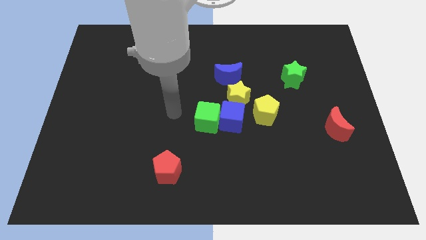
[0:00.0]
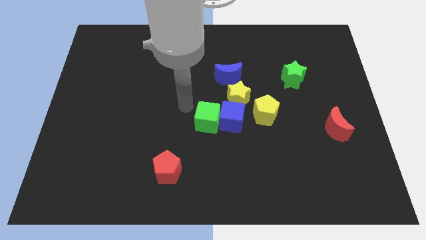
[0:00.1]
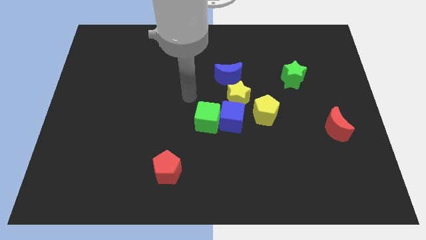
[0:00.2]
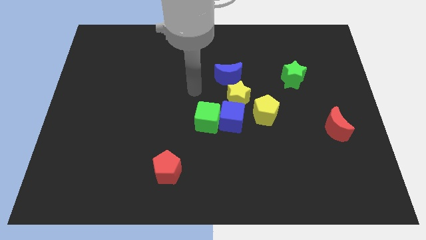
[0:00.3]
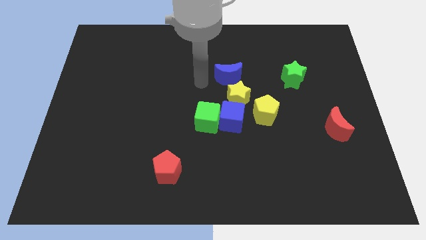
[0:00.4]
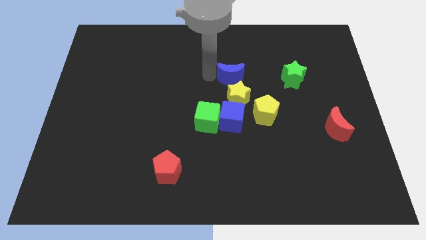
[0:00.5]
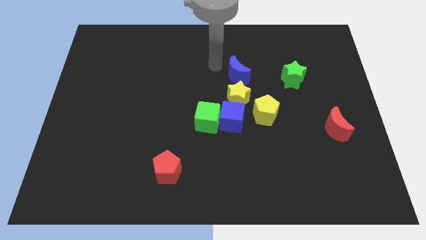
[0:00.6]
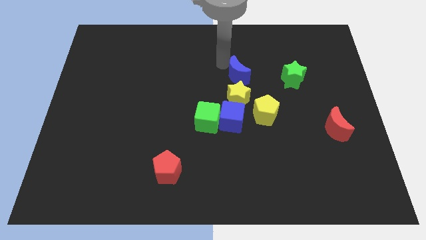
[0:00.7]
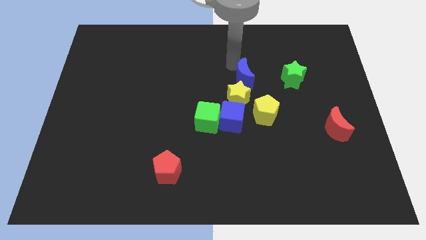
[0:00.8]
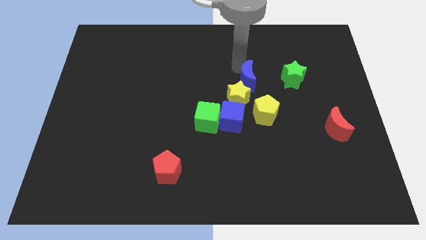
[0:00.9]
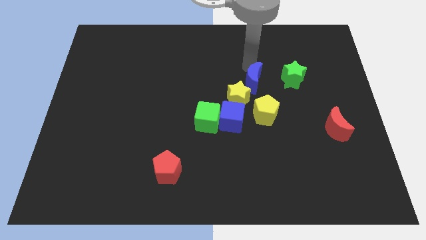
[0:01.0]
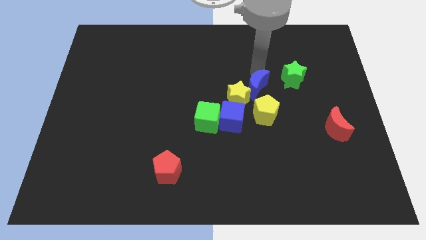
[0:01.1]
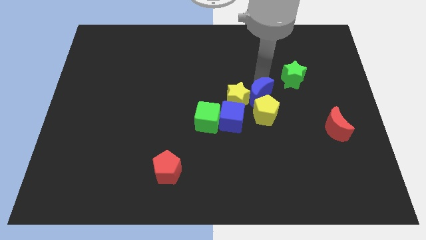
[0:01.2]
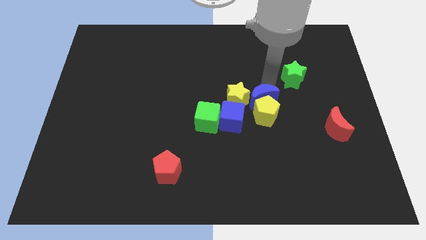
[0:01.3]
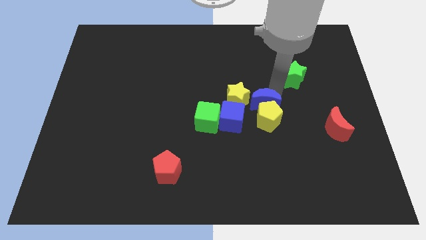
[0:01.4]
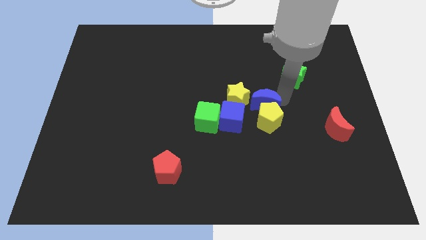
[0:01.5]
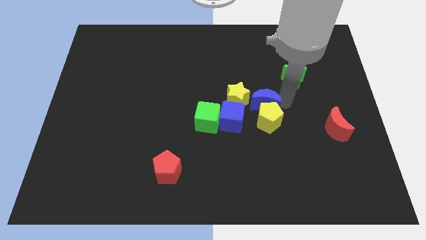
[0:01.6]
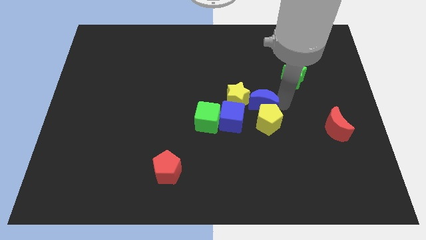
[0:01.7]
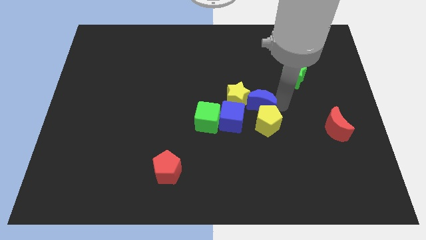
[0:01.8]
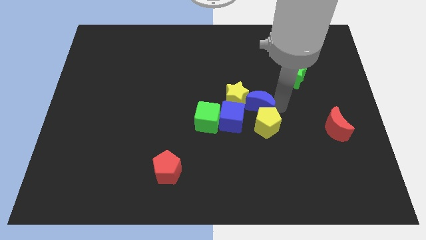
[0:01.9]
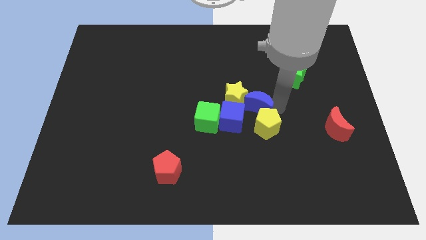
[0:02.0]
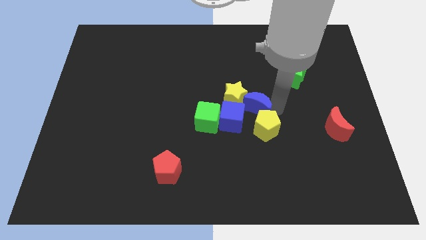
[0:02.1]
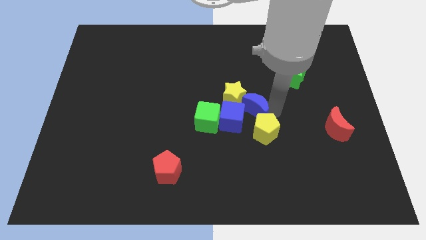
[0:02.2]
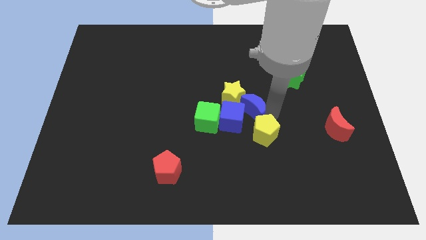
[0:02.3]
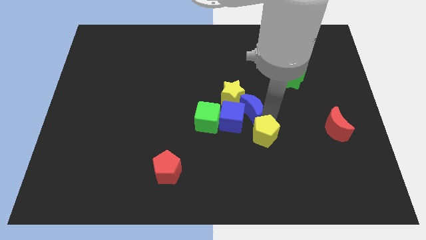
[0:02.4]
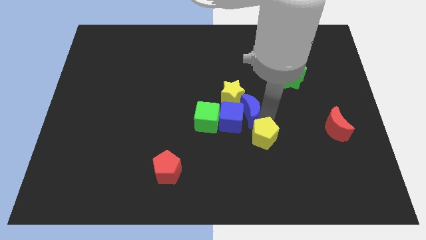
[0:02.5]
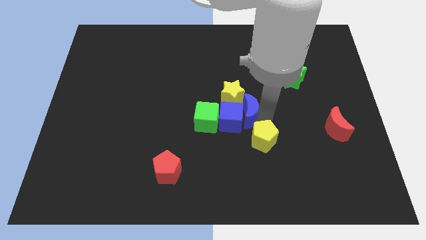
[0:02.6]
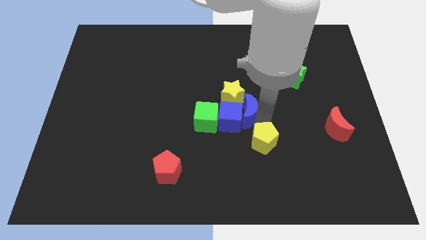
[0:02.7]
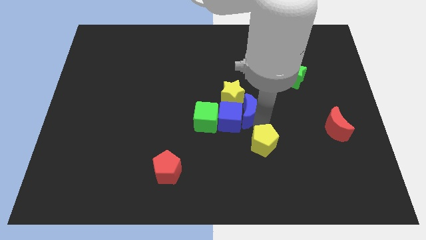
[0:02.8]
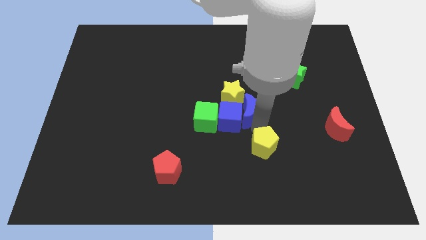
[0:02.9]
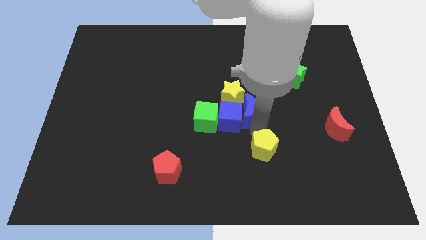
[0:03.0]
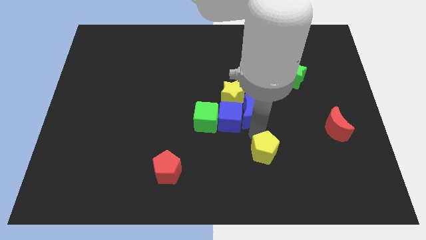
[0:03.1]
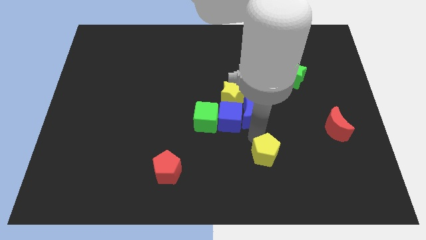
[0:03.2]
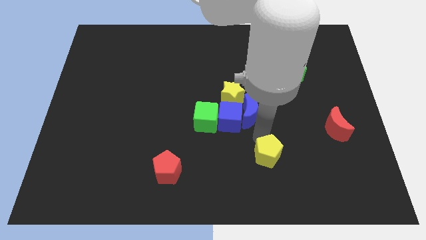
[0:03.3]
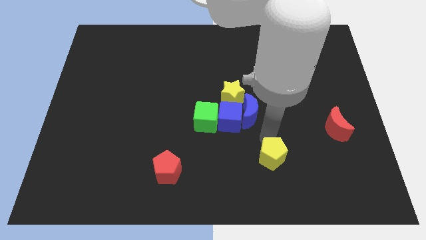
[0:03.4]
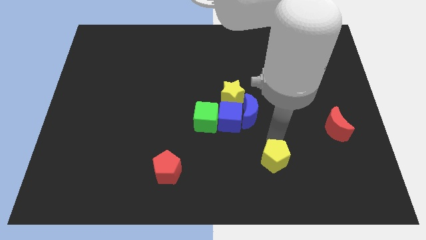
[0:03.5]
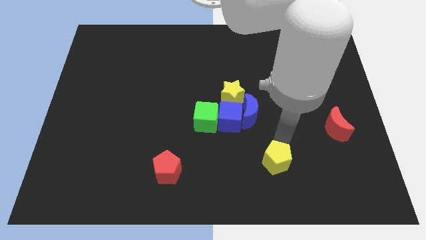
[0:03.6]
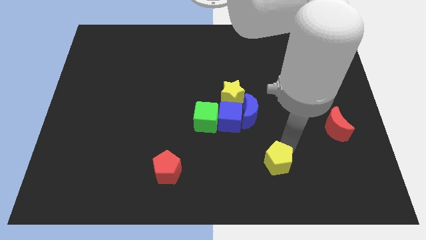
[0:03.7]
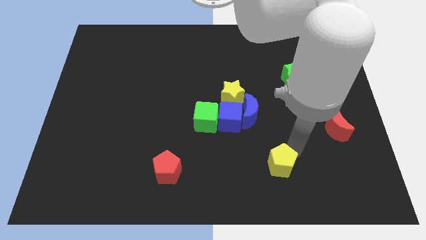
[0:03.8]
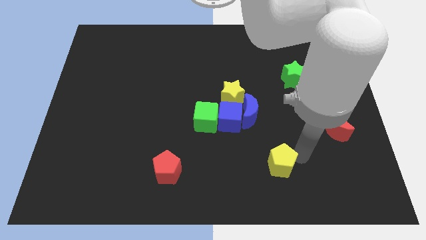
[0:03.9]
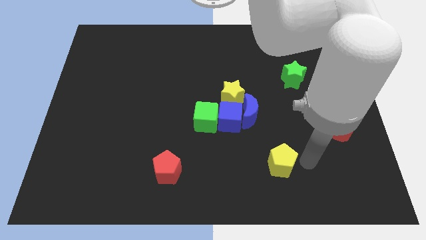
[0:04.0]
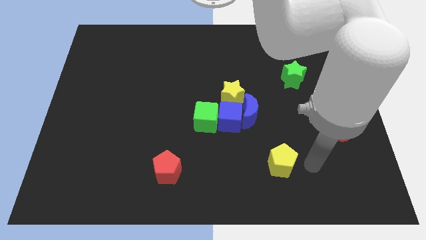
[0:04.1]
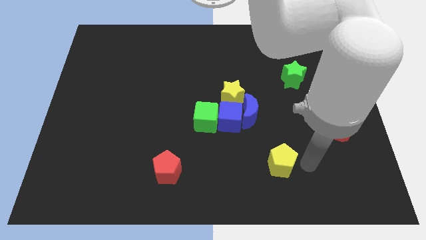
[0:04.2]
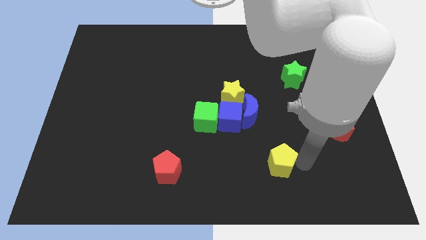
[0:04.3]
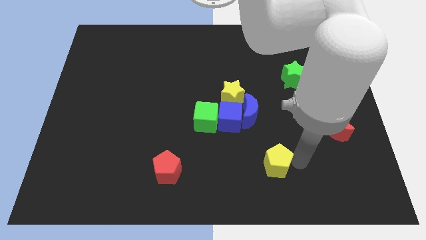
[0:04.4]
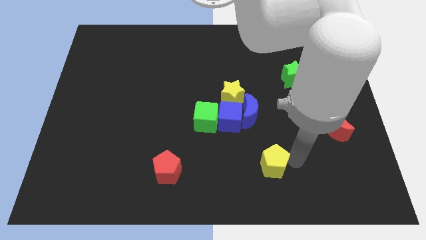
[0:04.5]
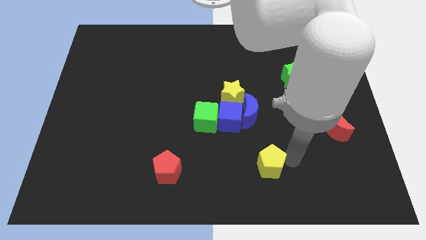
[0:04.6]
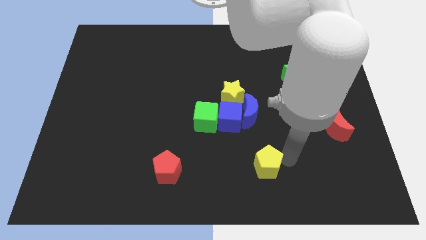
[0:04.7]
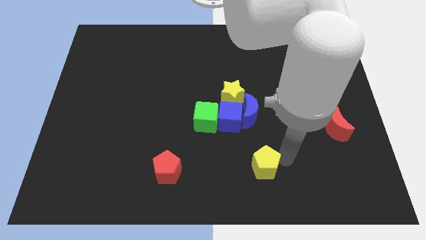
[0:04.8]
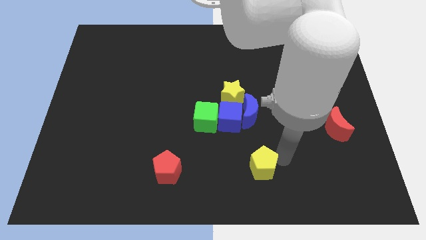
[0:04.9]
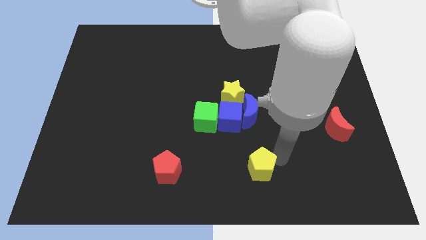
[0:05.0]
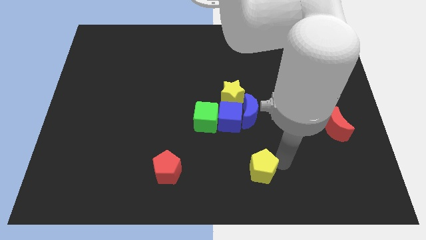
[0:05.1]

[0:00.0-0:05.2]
move the yellow pentagon to the bottom

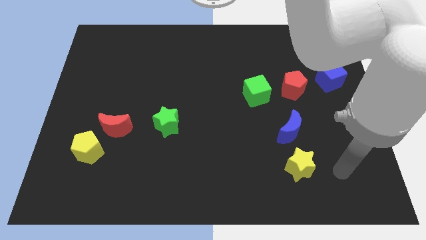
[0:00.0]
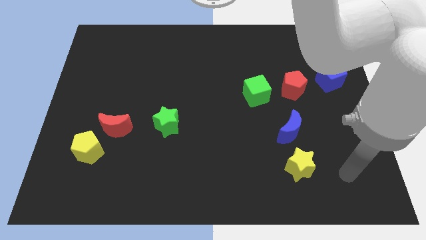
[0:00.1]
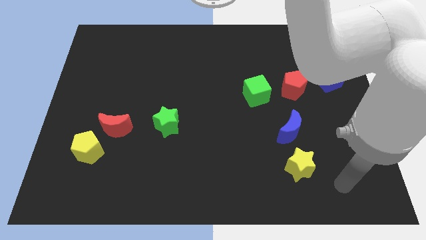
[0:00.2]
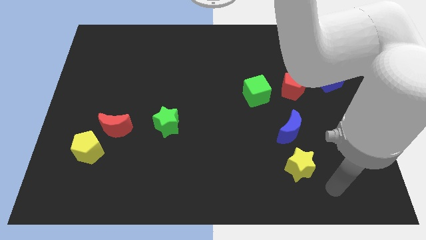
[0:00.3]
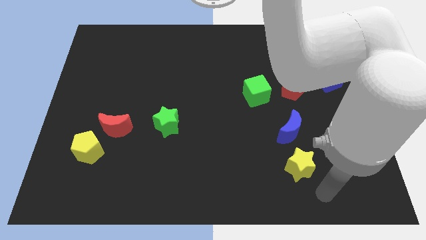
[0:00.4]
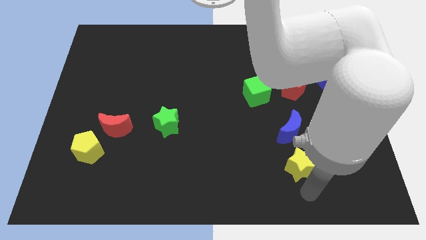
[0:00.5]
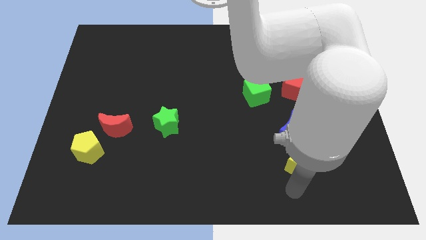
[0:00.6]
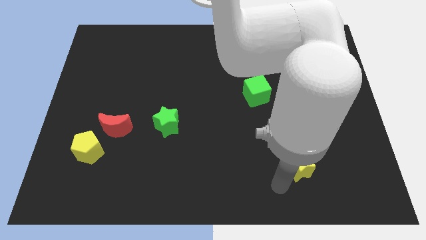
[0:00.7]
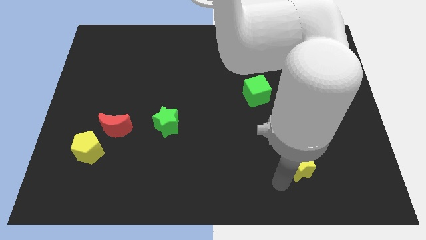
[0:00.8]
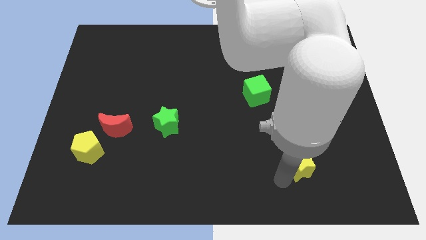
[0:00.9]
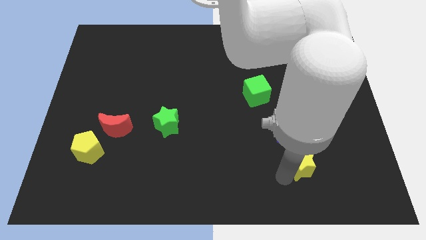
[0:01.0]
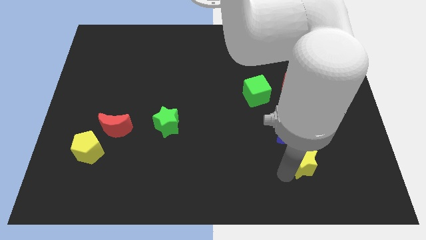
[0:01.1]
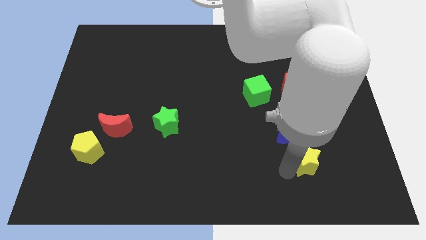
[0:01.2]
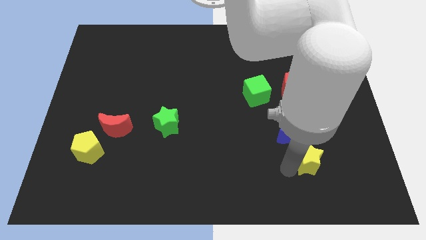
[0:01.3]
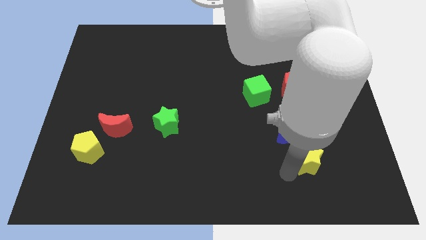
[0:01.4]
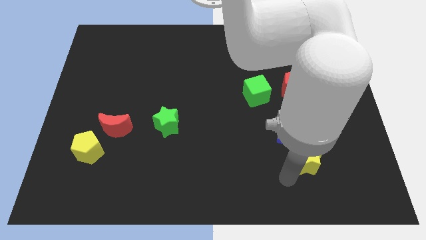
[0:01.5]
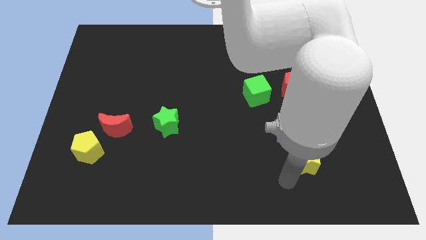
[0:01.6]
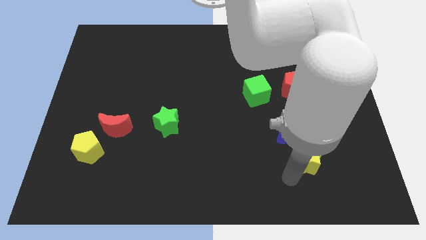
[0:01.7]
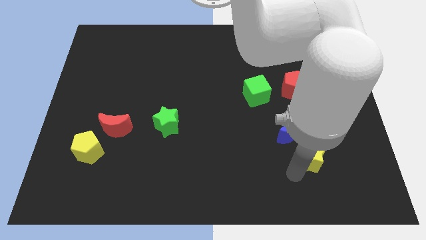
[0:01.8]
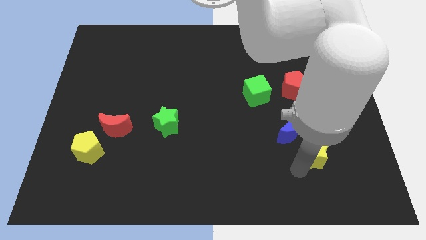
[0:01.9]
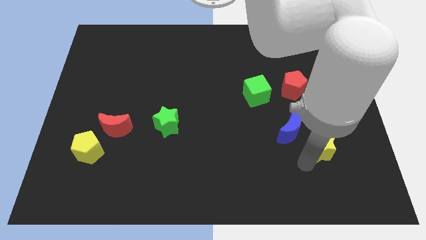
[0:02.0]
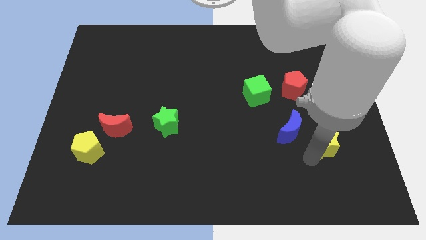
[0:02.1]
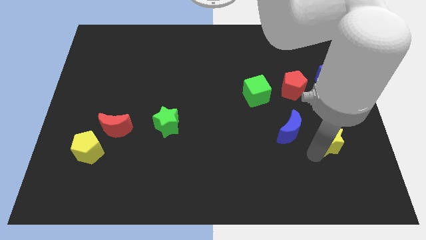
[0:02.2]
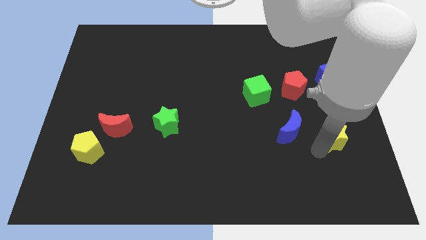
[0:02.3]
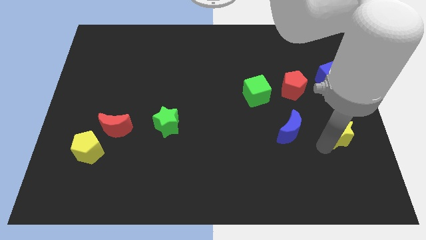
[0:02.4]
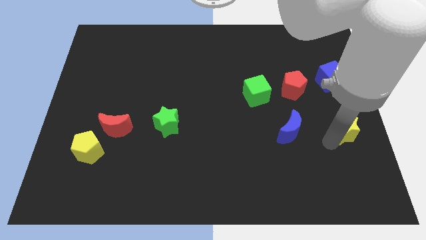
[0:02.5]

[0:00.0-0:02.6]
push the yellow star to the center right
